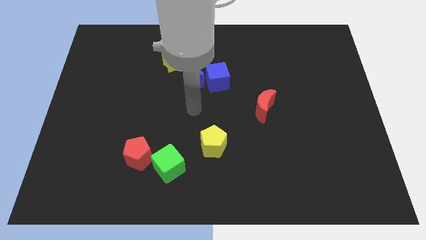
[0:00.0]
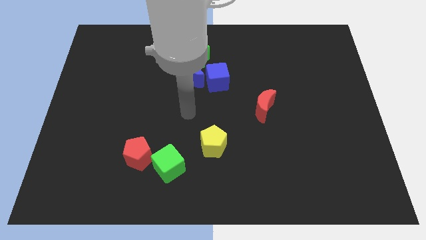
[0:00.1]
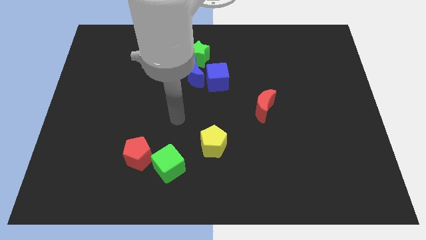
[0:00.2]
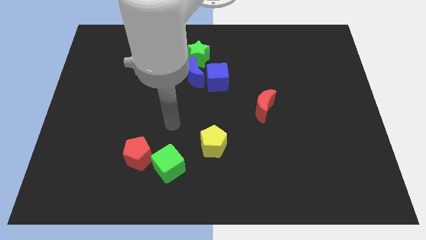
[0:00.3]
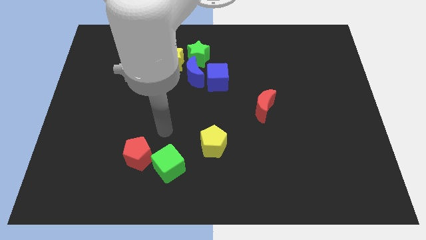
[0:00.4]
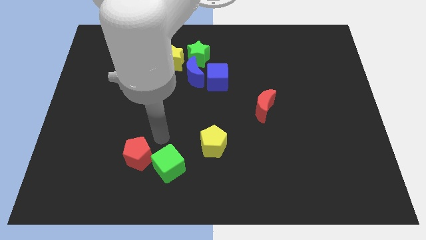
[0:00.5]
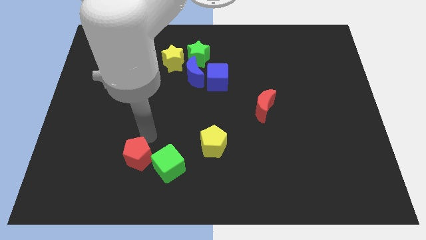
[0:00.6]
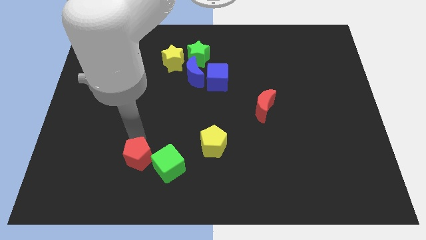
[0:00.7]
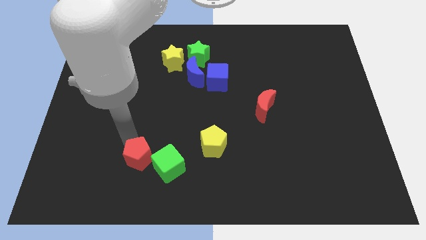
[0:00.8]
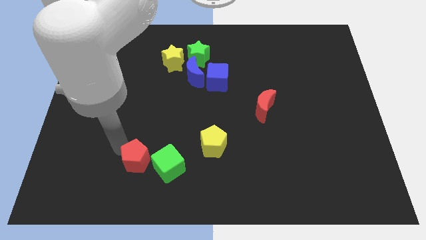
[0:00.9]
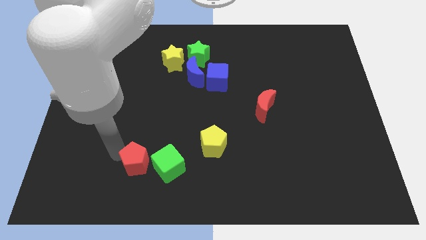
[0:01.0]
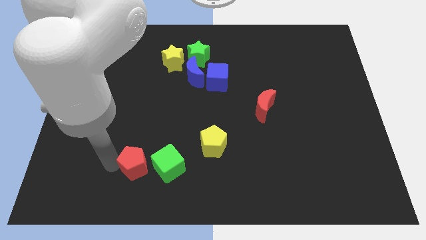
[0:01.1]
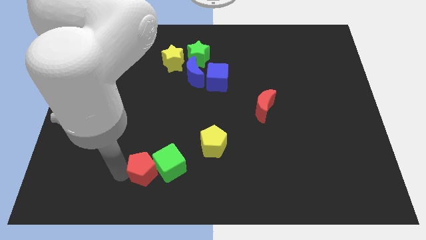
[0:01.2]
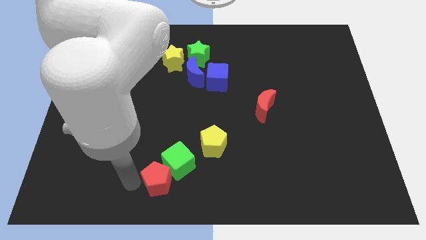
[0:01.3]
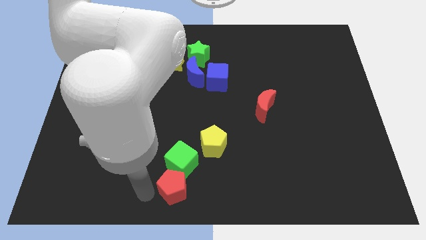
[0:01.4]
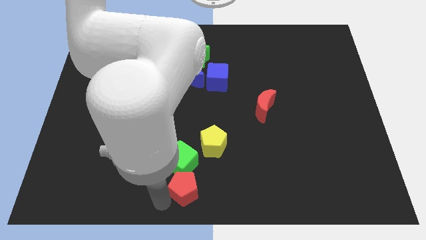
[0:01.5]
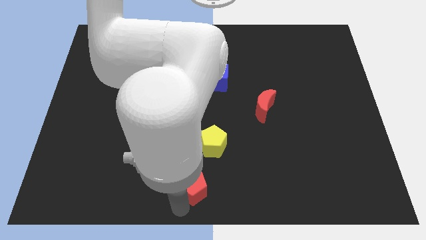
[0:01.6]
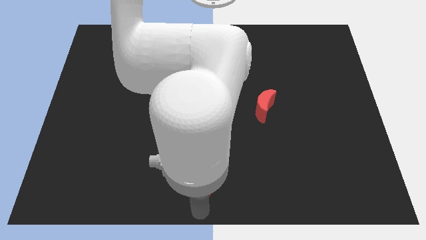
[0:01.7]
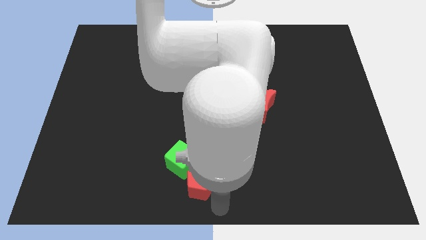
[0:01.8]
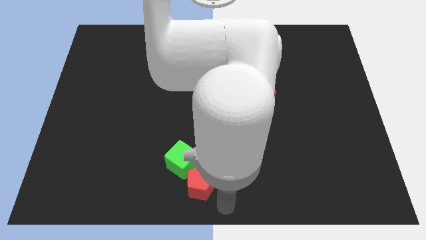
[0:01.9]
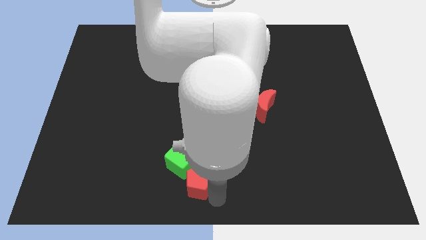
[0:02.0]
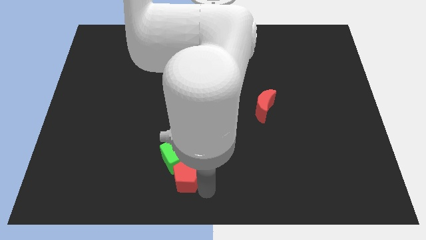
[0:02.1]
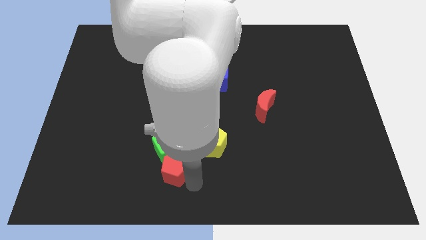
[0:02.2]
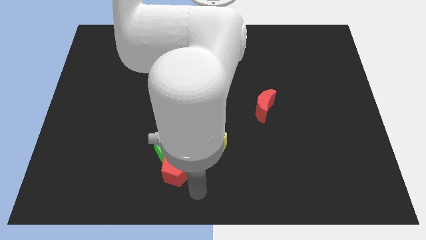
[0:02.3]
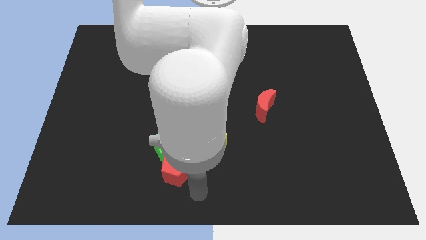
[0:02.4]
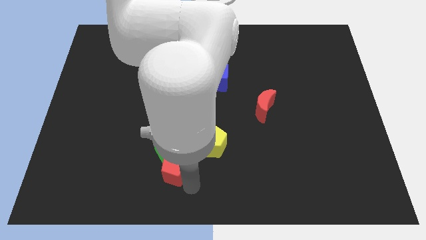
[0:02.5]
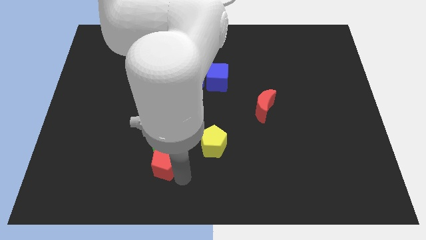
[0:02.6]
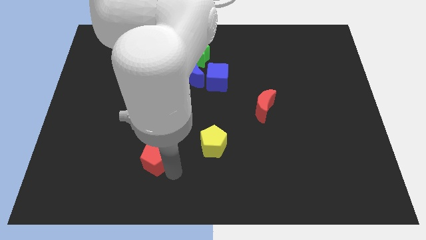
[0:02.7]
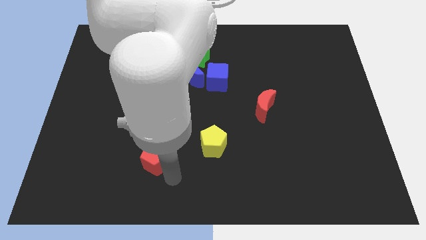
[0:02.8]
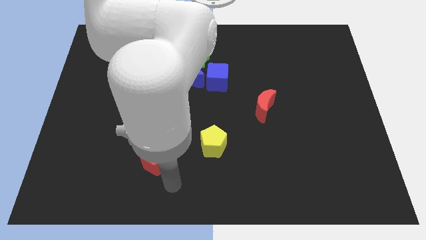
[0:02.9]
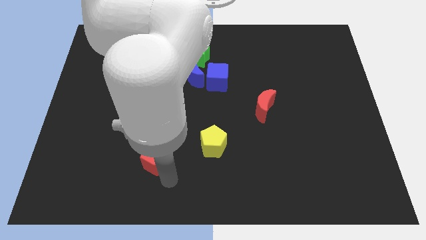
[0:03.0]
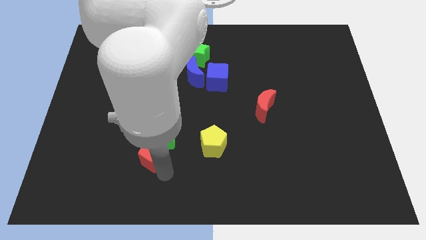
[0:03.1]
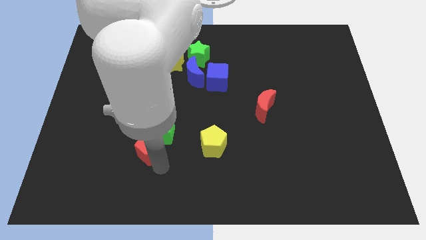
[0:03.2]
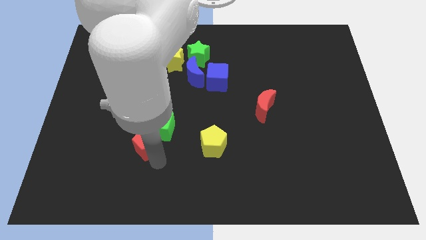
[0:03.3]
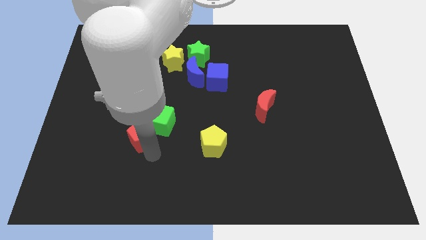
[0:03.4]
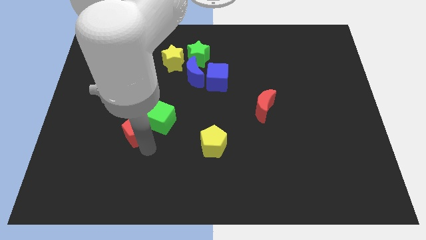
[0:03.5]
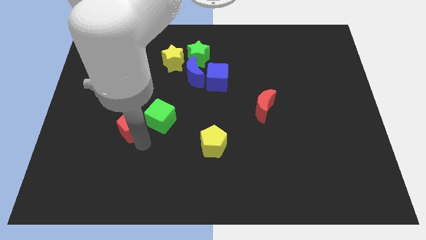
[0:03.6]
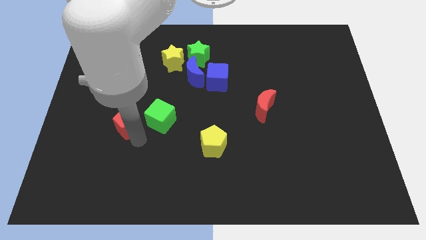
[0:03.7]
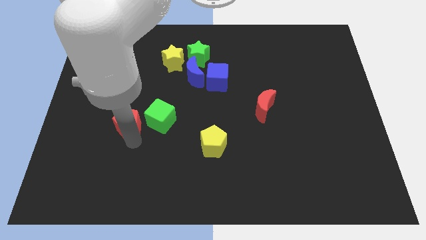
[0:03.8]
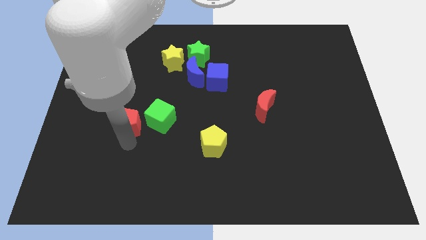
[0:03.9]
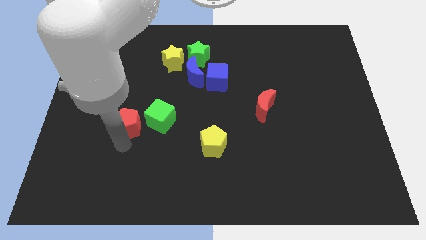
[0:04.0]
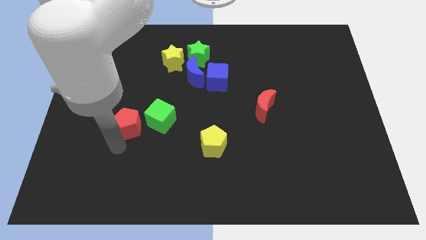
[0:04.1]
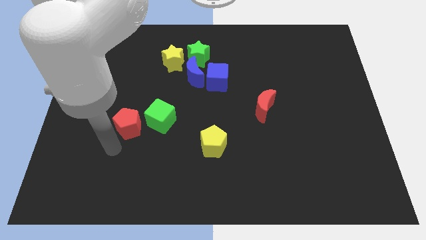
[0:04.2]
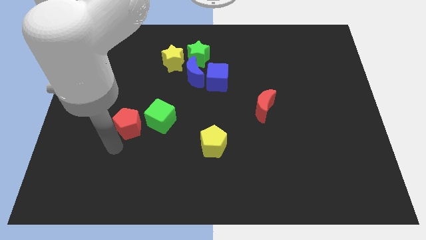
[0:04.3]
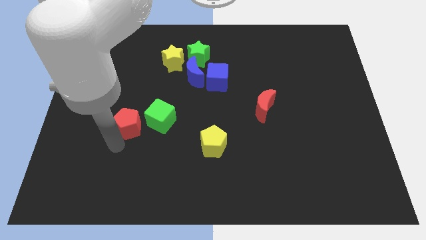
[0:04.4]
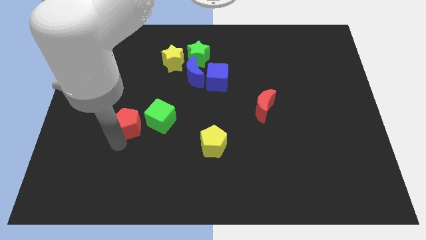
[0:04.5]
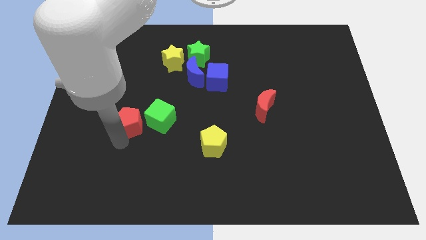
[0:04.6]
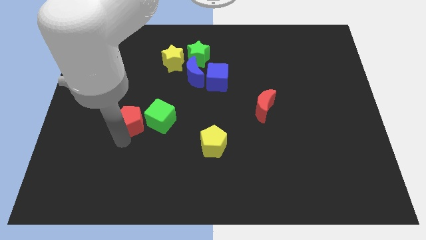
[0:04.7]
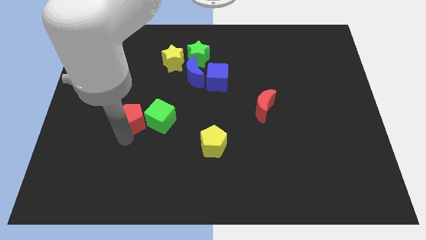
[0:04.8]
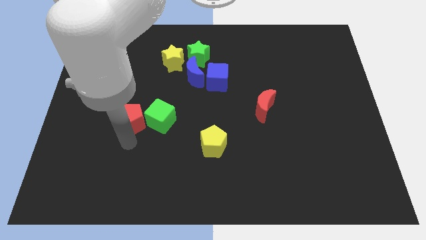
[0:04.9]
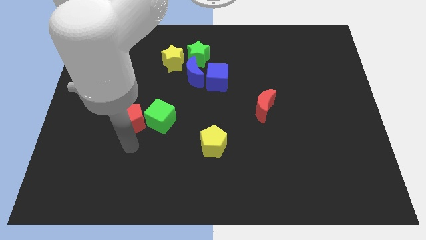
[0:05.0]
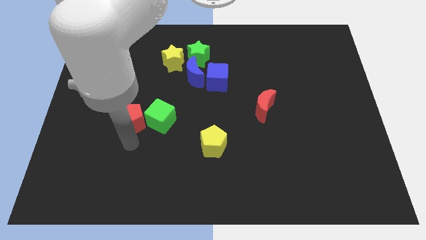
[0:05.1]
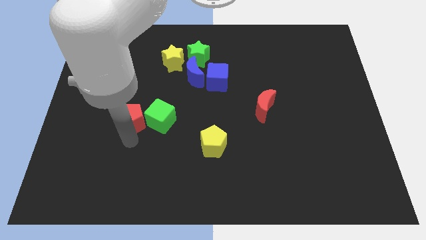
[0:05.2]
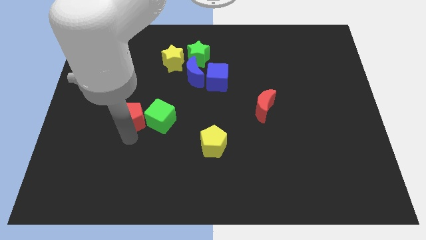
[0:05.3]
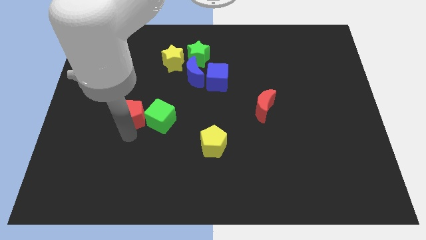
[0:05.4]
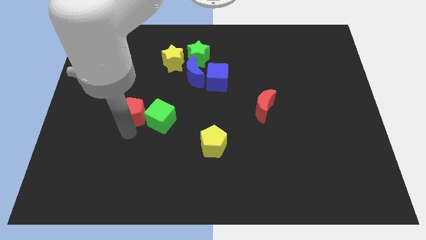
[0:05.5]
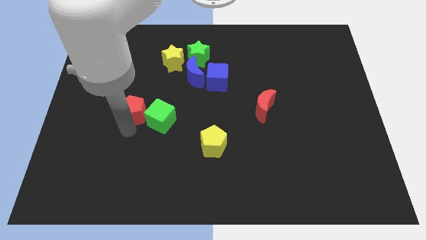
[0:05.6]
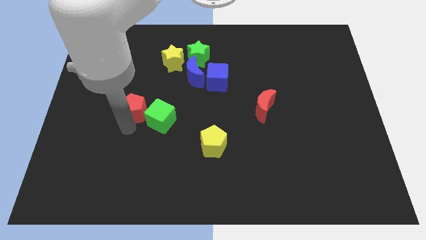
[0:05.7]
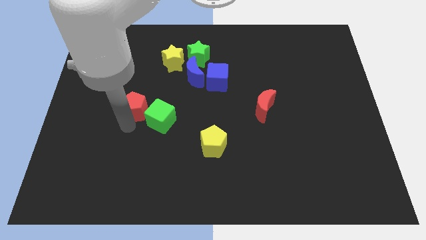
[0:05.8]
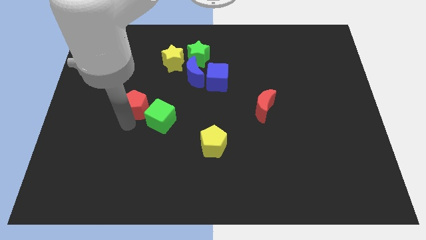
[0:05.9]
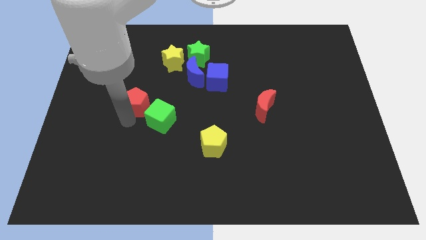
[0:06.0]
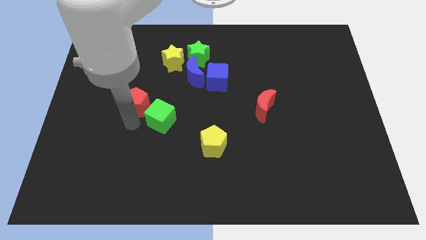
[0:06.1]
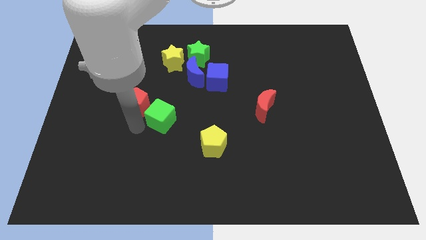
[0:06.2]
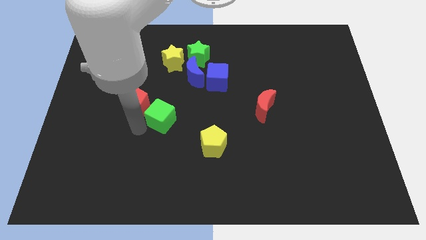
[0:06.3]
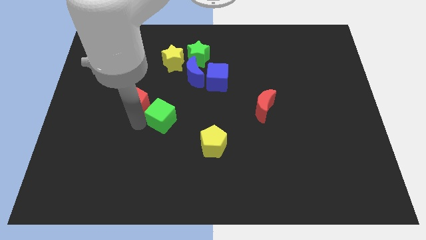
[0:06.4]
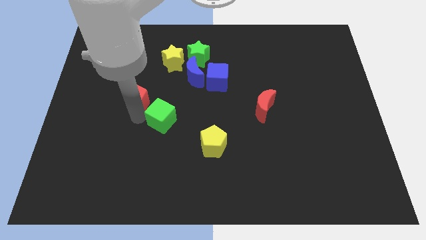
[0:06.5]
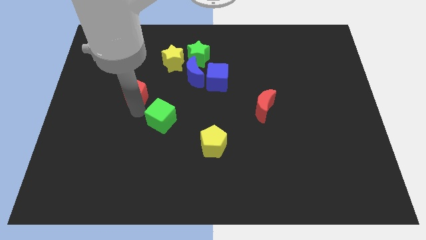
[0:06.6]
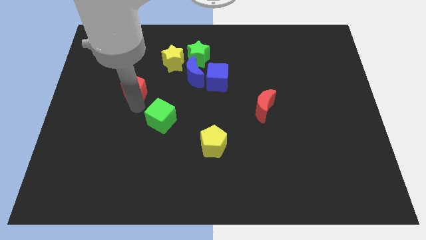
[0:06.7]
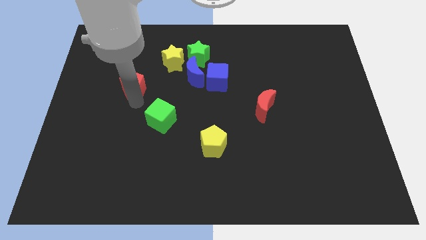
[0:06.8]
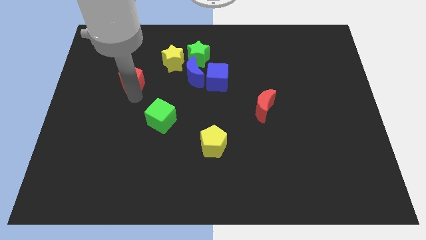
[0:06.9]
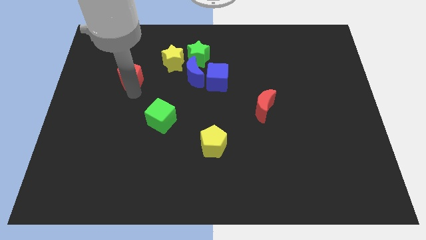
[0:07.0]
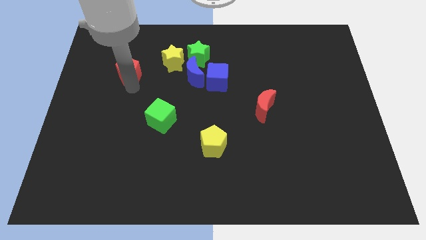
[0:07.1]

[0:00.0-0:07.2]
push the red pentagon to the left side of the yellow star

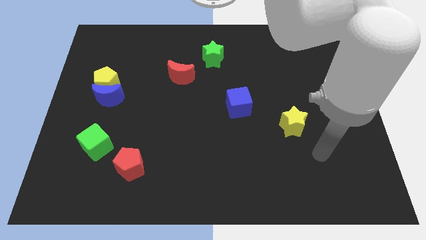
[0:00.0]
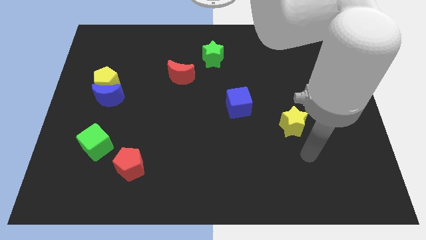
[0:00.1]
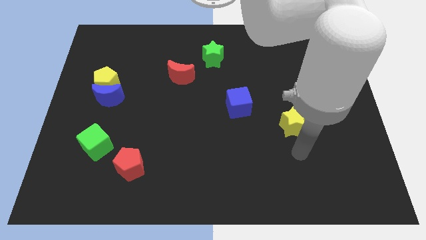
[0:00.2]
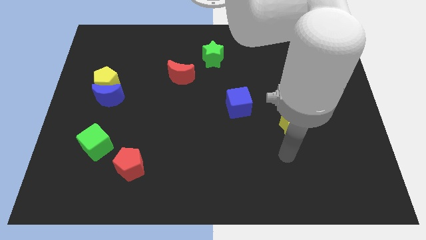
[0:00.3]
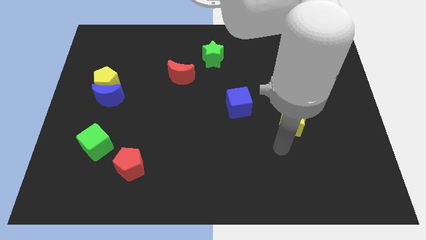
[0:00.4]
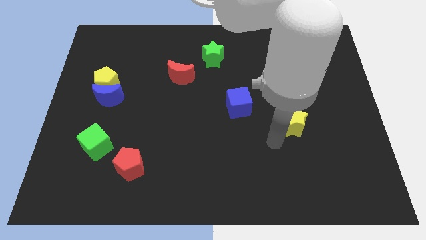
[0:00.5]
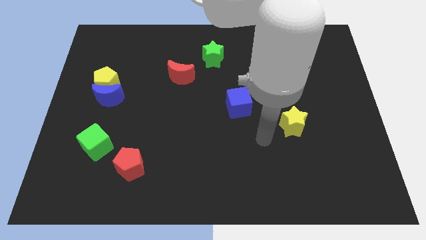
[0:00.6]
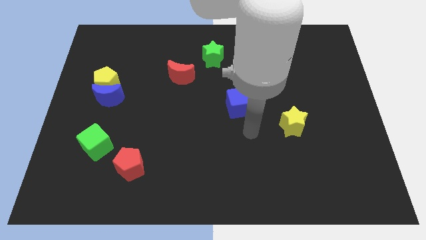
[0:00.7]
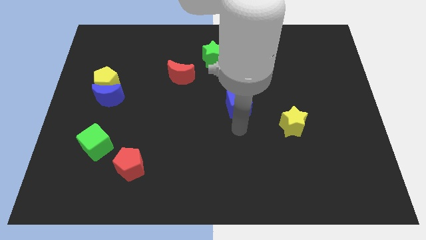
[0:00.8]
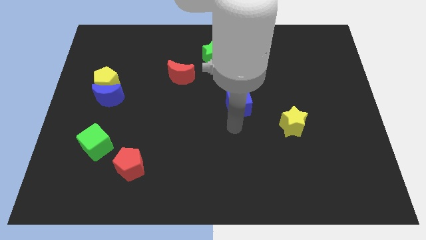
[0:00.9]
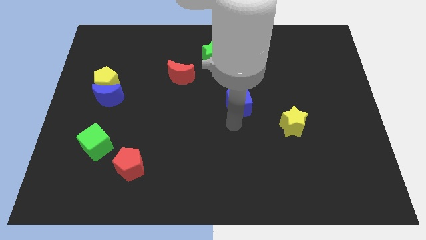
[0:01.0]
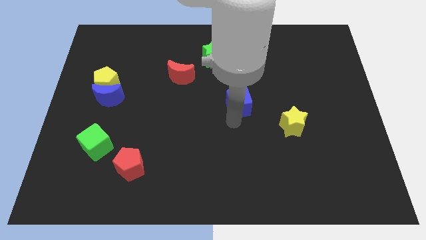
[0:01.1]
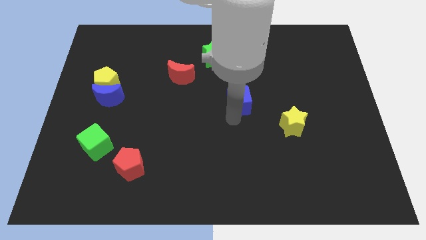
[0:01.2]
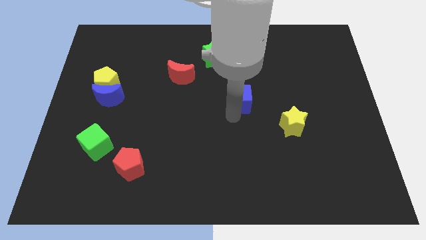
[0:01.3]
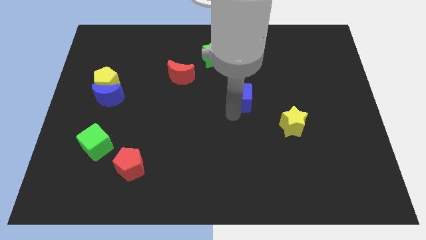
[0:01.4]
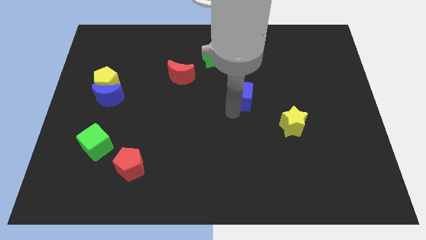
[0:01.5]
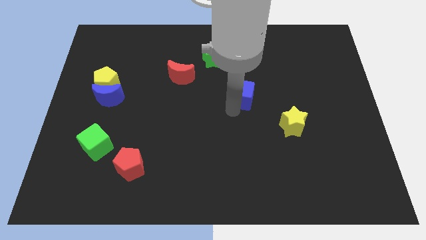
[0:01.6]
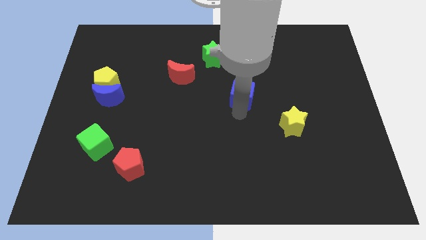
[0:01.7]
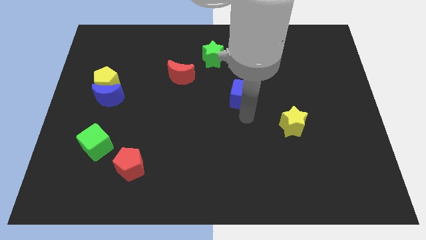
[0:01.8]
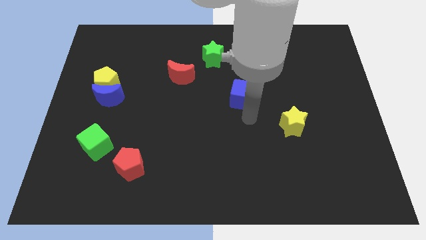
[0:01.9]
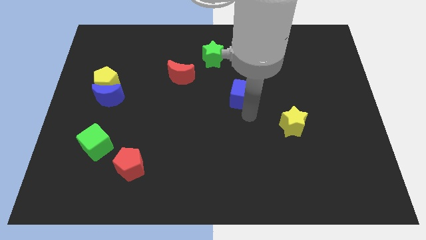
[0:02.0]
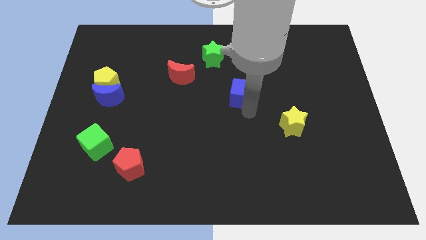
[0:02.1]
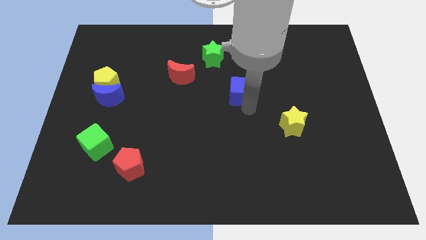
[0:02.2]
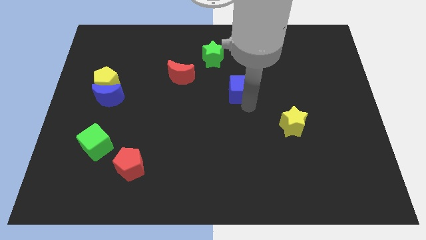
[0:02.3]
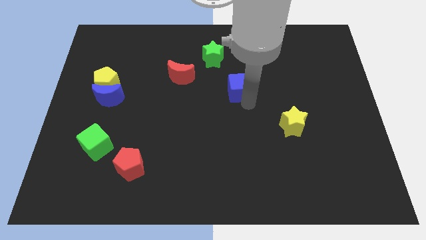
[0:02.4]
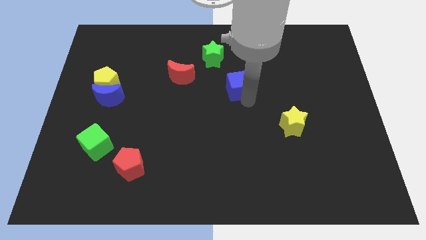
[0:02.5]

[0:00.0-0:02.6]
slide the blue cube to the bottom right of the green star
